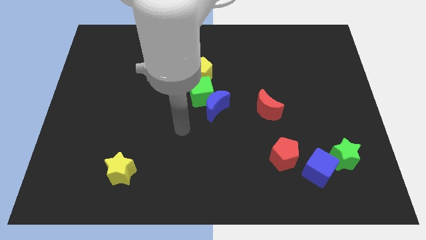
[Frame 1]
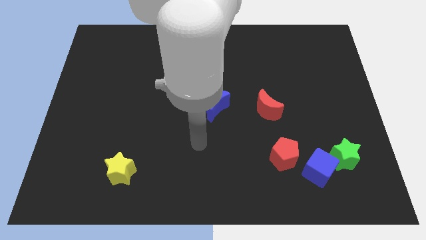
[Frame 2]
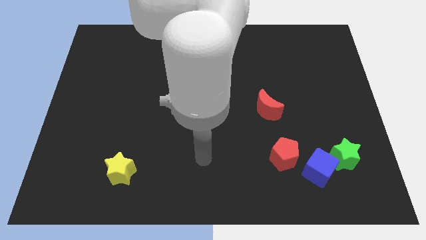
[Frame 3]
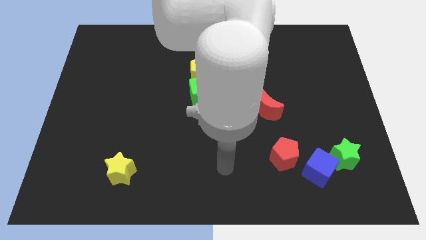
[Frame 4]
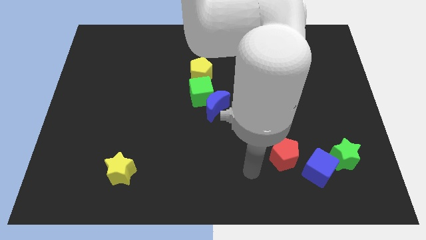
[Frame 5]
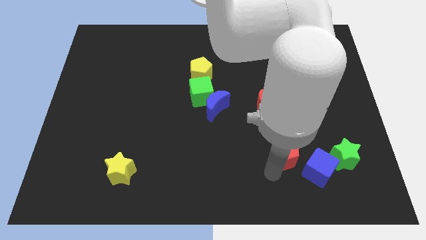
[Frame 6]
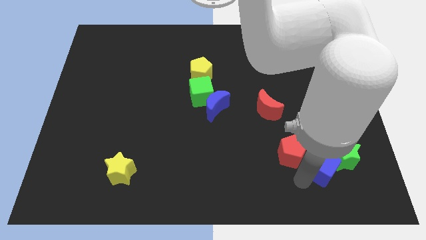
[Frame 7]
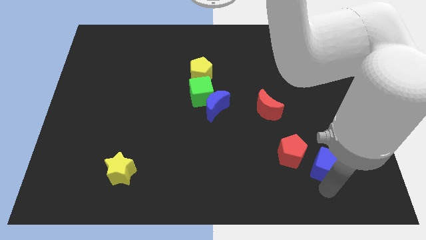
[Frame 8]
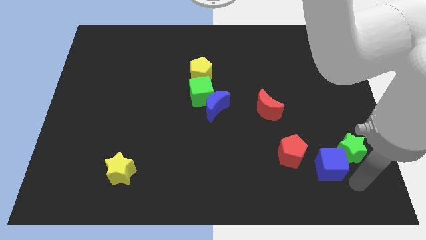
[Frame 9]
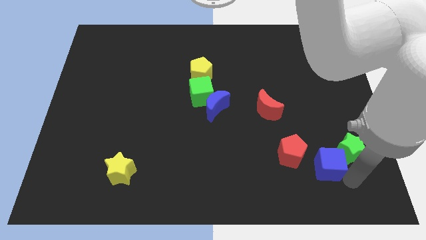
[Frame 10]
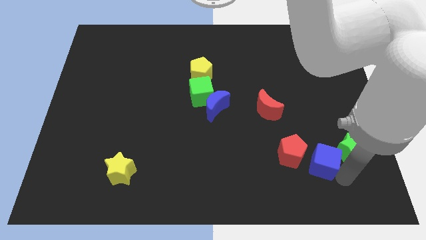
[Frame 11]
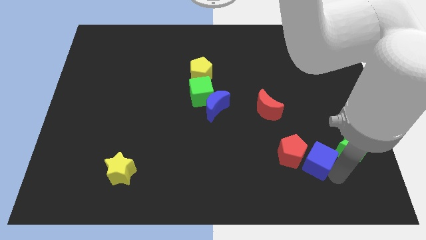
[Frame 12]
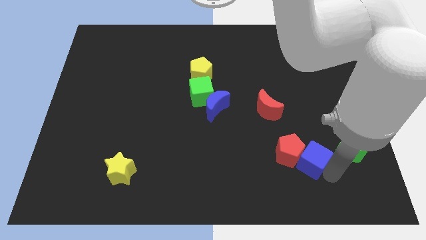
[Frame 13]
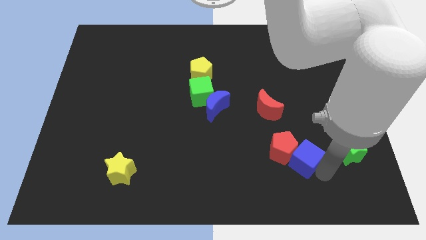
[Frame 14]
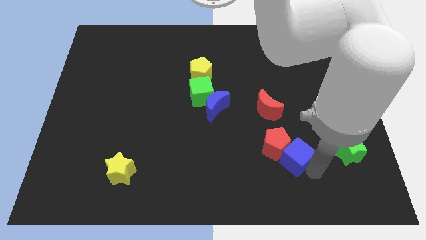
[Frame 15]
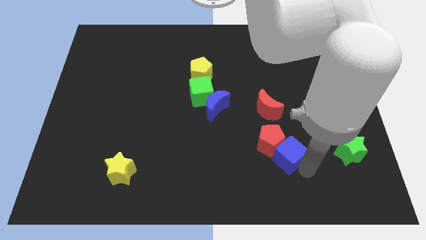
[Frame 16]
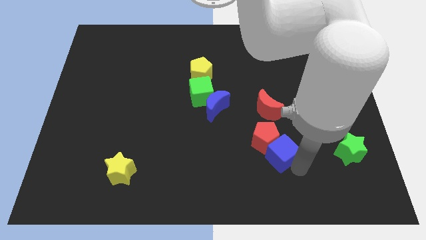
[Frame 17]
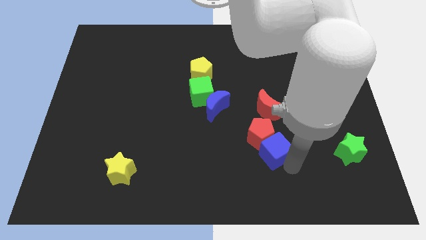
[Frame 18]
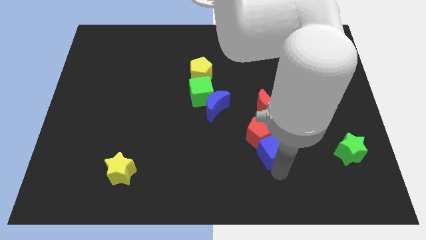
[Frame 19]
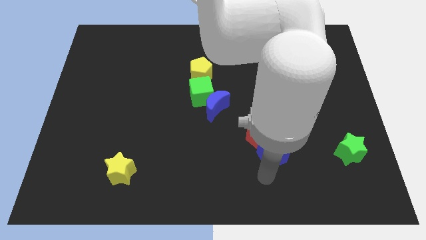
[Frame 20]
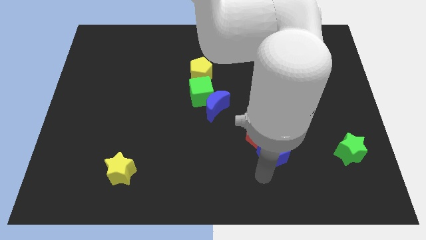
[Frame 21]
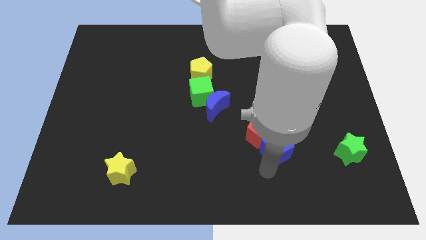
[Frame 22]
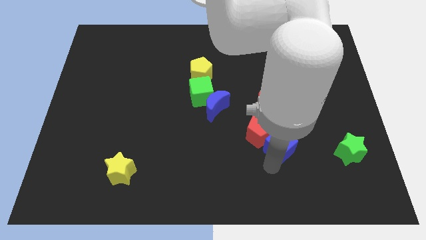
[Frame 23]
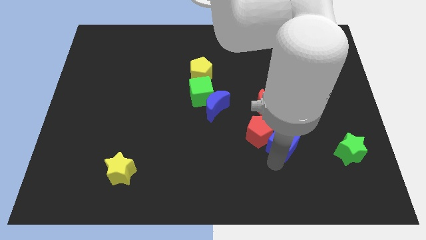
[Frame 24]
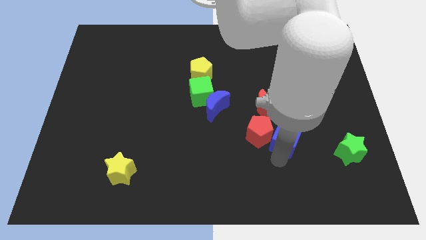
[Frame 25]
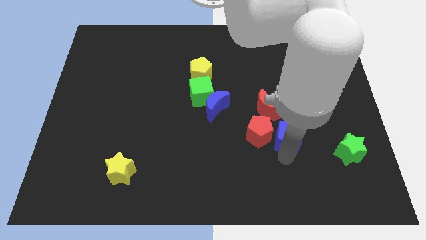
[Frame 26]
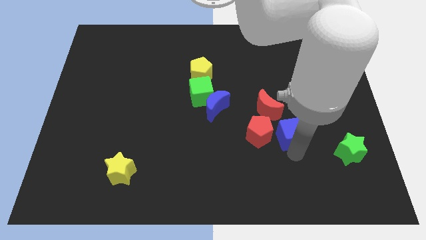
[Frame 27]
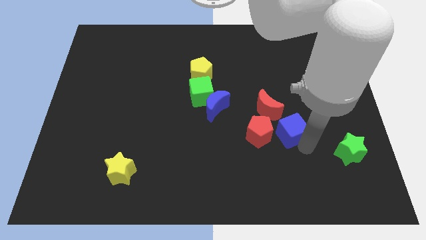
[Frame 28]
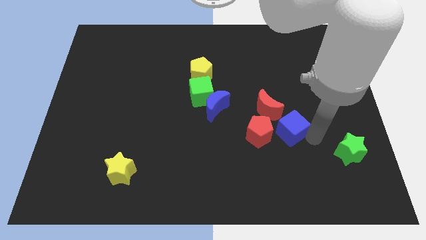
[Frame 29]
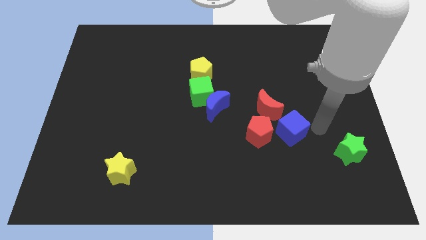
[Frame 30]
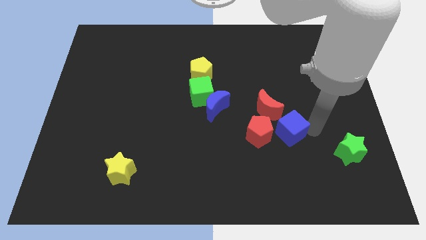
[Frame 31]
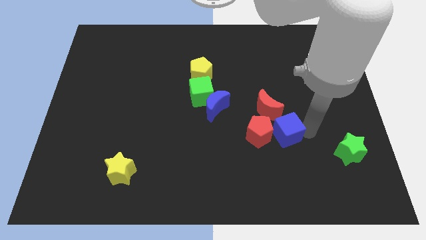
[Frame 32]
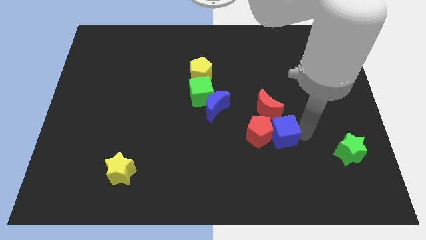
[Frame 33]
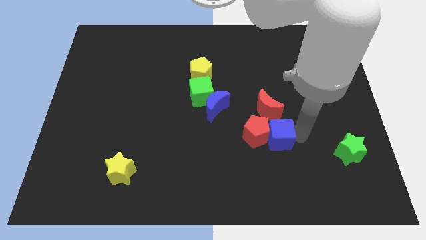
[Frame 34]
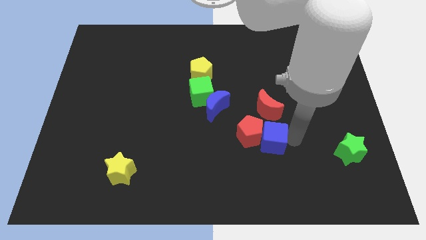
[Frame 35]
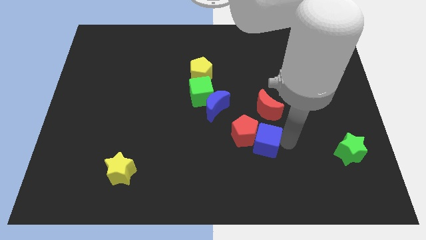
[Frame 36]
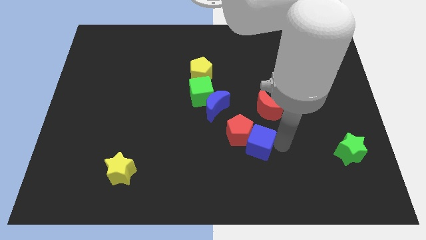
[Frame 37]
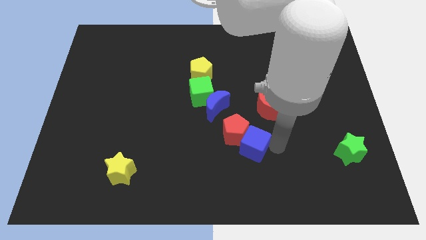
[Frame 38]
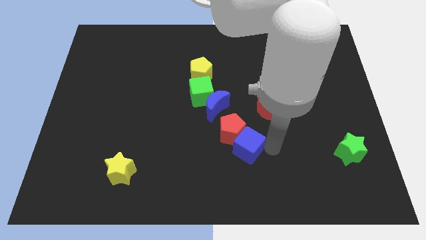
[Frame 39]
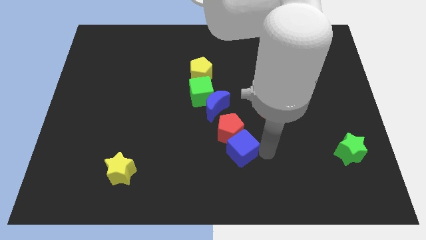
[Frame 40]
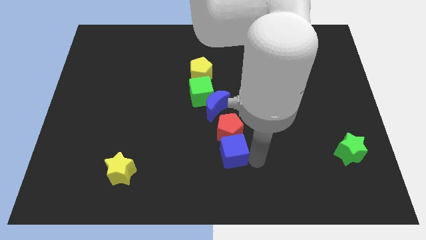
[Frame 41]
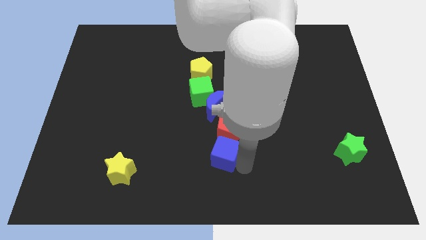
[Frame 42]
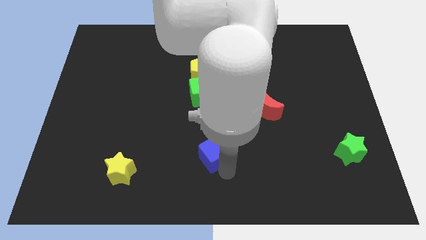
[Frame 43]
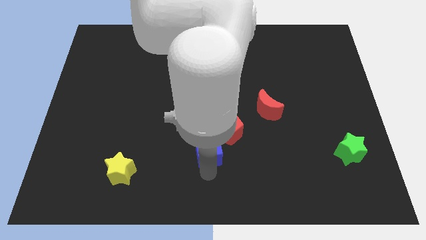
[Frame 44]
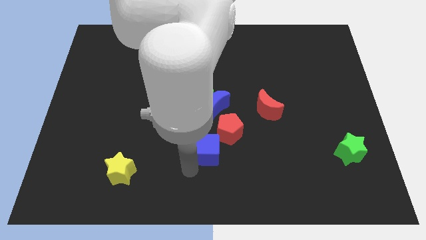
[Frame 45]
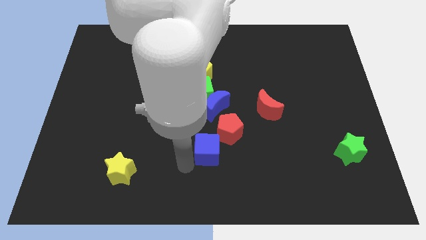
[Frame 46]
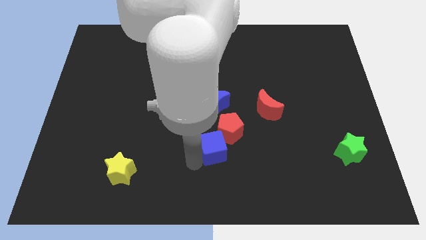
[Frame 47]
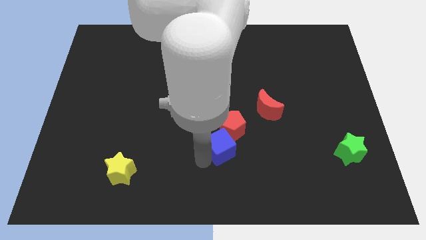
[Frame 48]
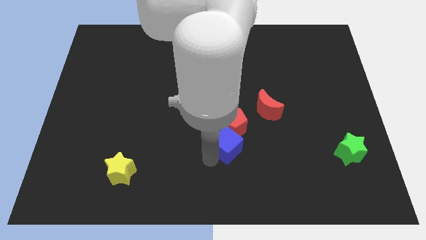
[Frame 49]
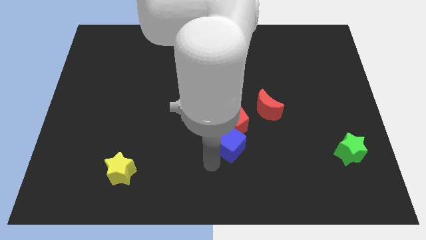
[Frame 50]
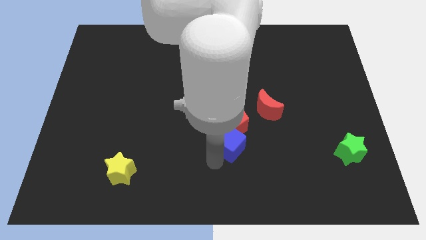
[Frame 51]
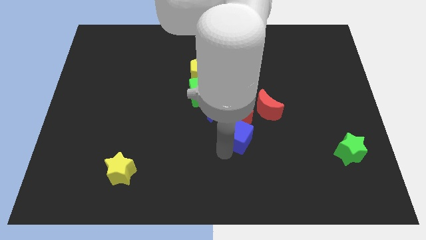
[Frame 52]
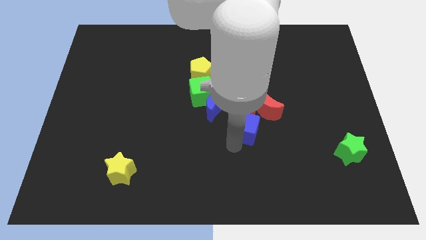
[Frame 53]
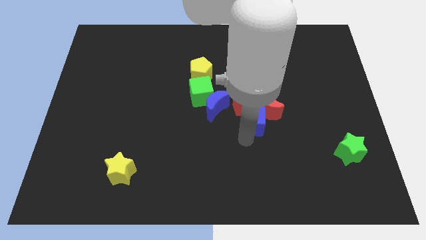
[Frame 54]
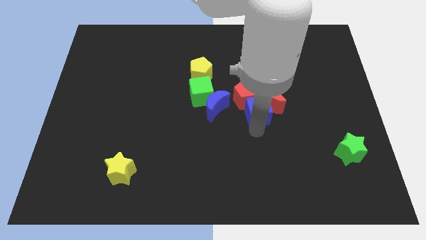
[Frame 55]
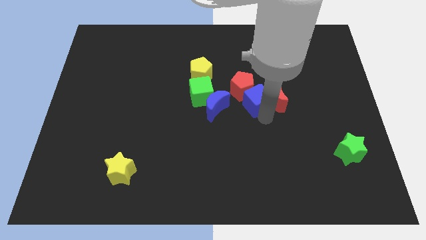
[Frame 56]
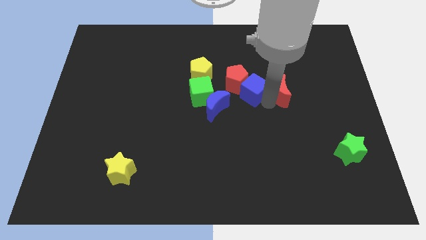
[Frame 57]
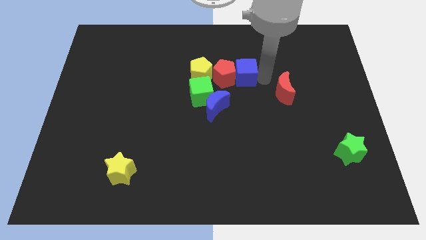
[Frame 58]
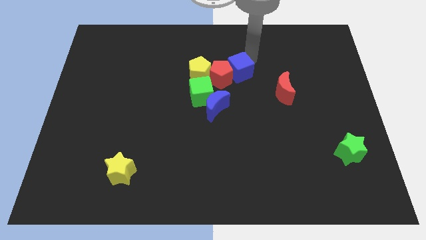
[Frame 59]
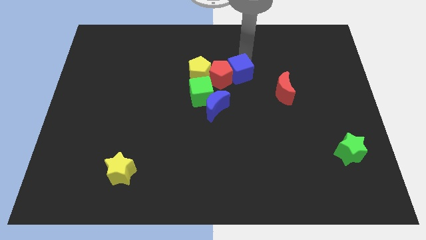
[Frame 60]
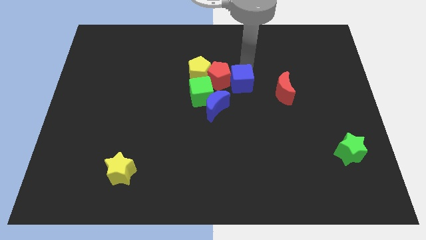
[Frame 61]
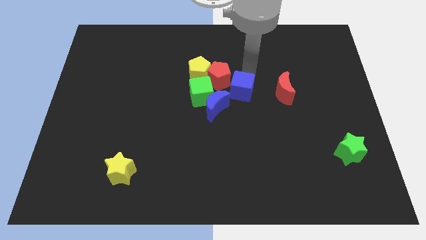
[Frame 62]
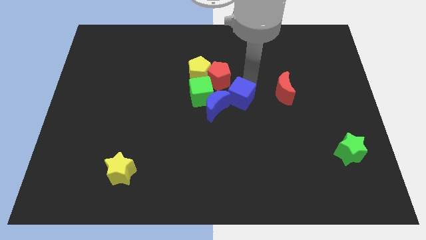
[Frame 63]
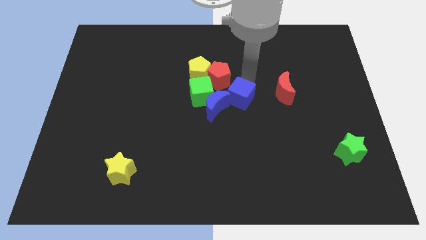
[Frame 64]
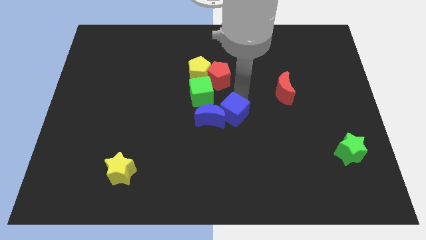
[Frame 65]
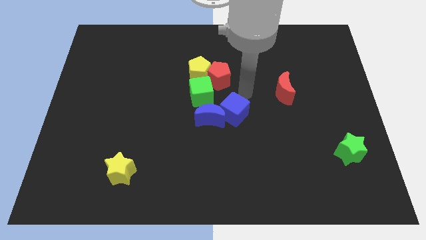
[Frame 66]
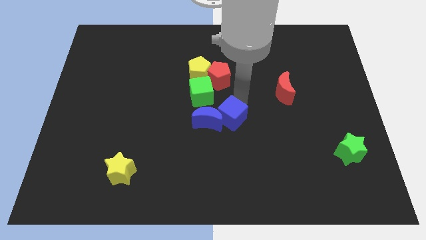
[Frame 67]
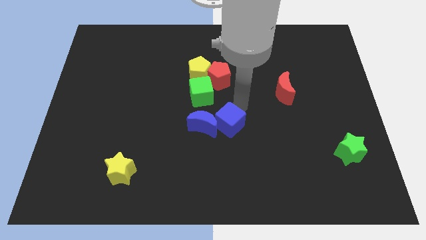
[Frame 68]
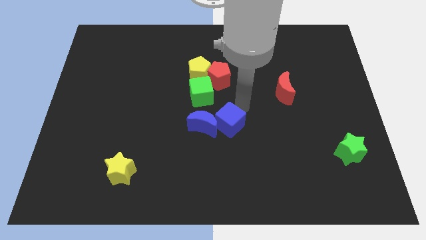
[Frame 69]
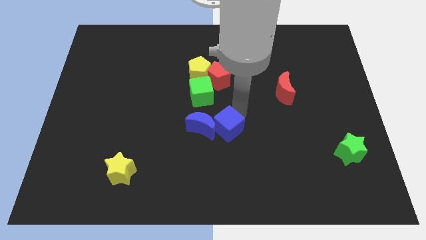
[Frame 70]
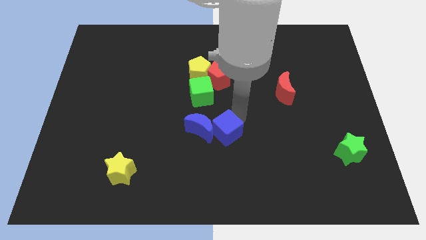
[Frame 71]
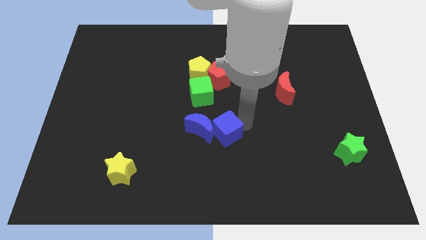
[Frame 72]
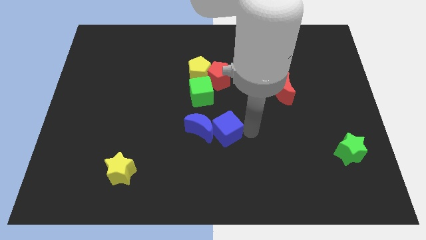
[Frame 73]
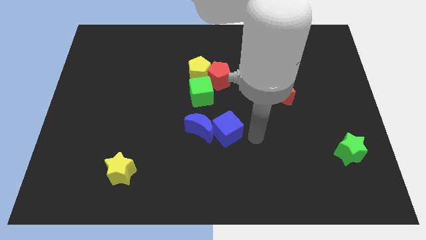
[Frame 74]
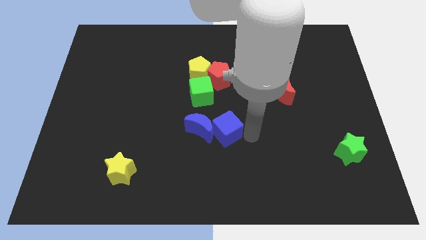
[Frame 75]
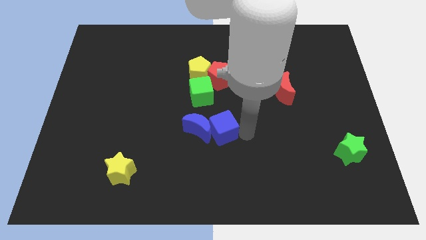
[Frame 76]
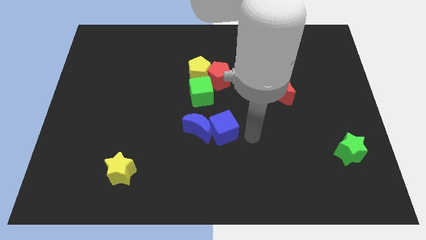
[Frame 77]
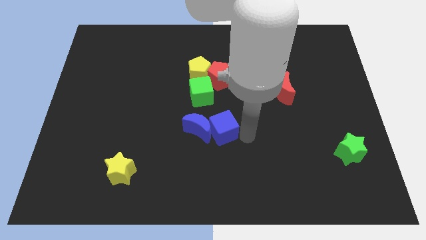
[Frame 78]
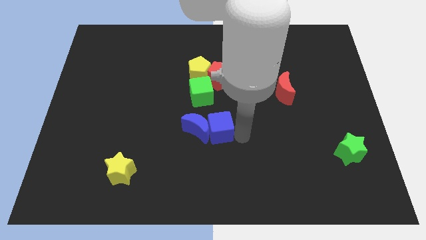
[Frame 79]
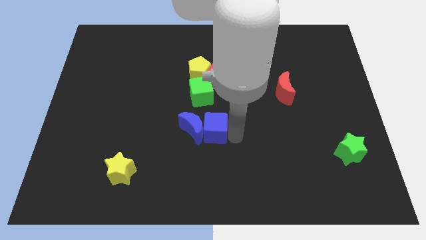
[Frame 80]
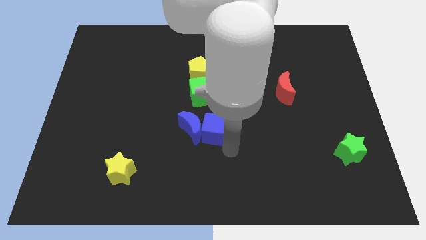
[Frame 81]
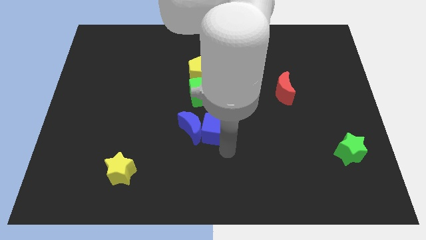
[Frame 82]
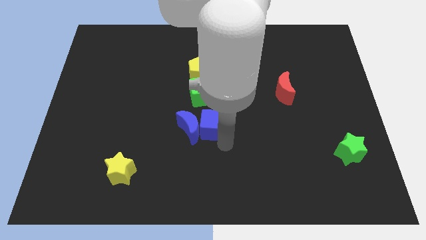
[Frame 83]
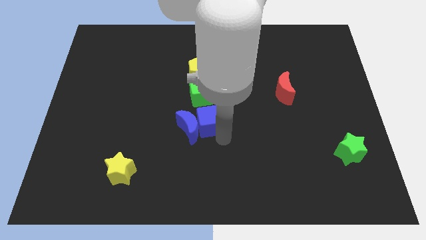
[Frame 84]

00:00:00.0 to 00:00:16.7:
slide the blue cube to the bottom of the yellow pentagon
